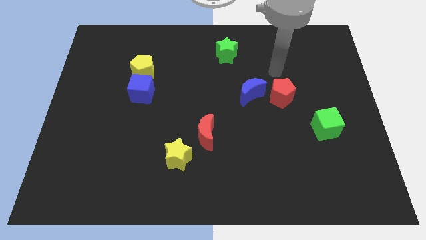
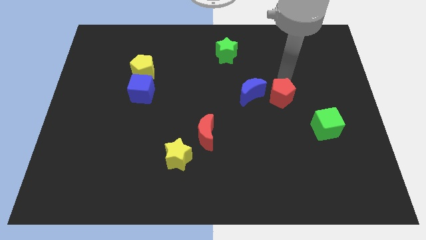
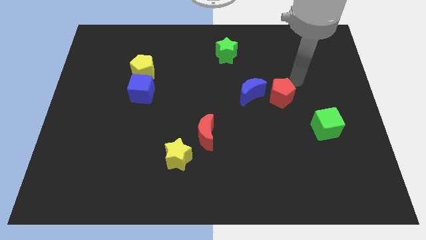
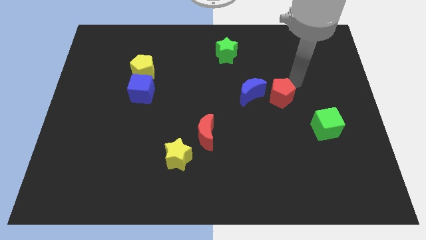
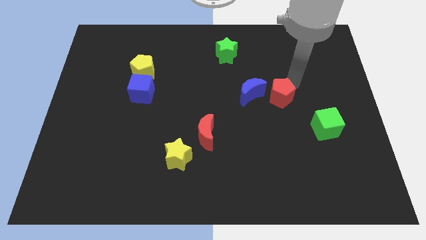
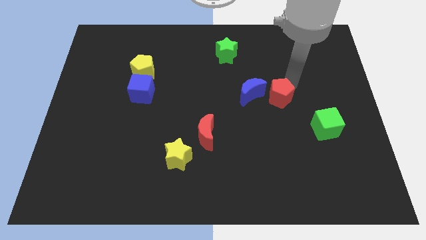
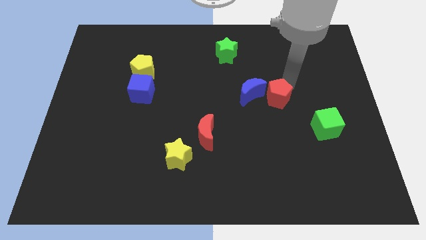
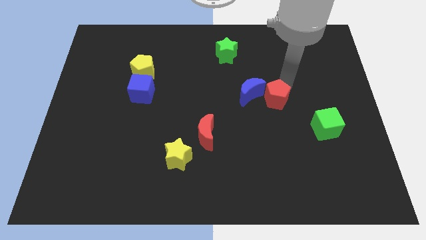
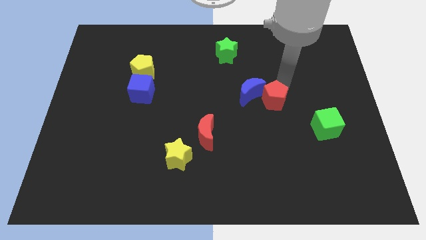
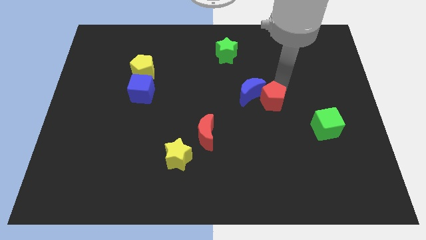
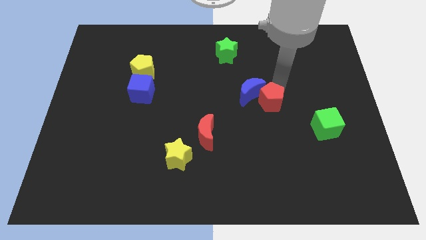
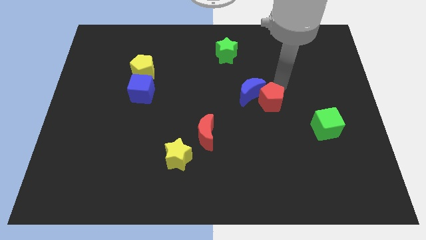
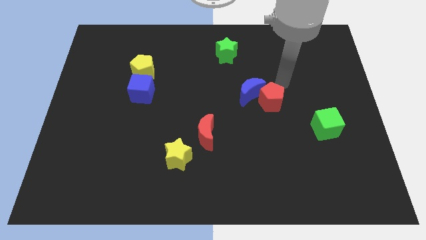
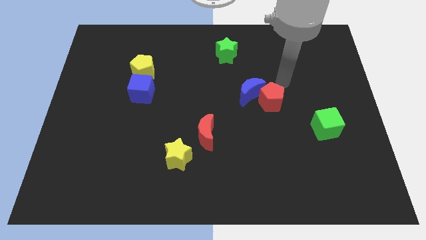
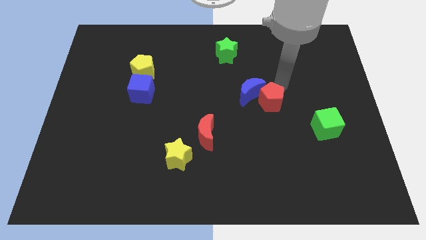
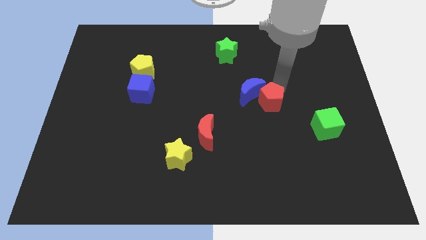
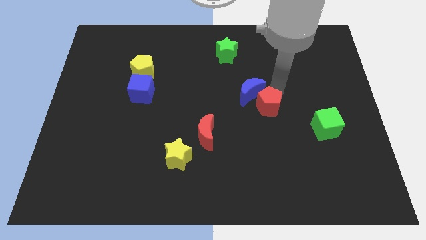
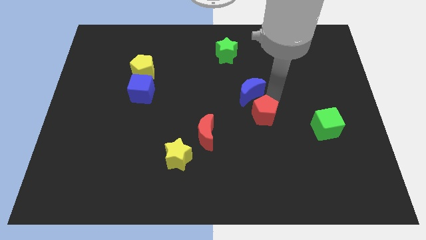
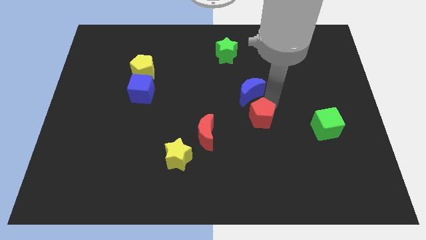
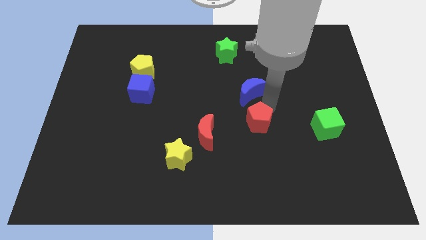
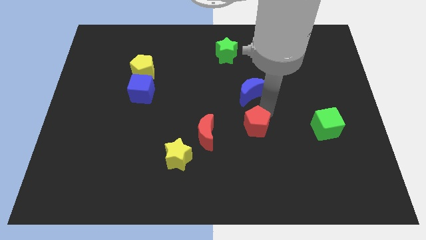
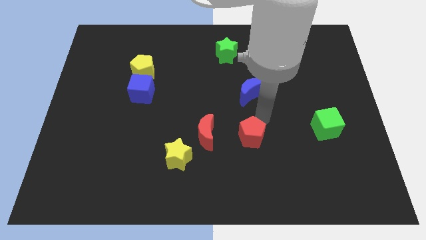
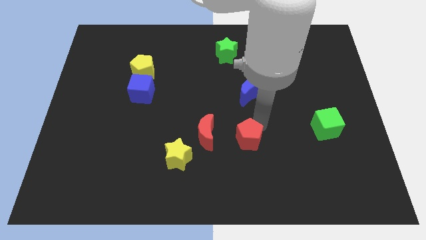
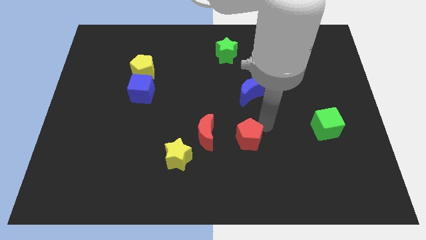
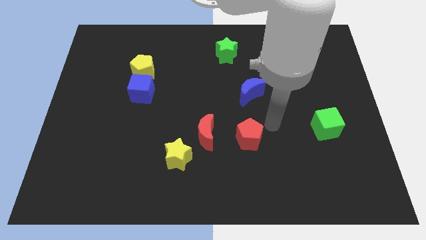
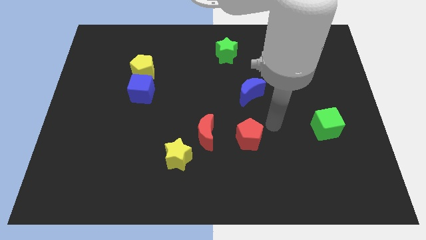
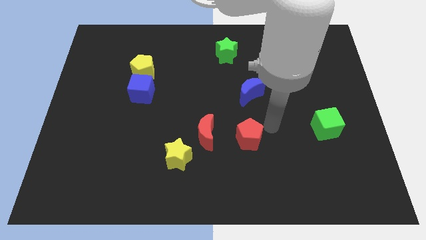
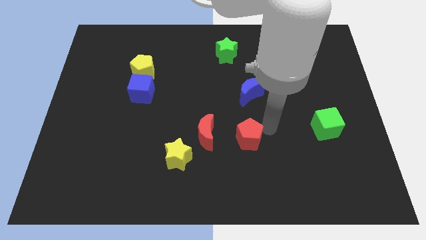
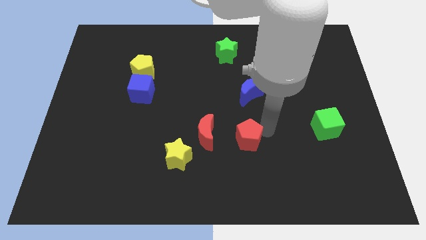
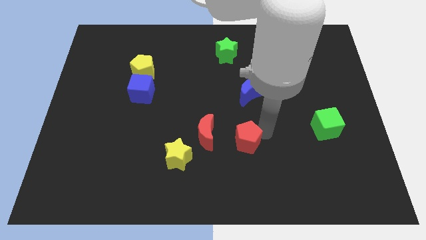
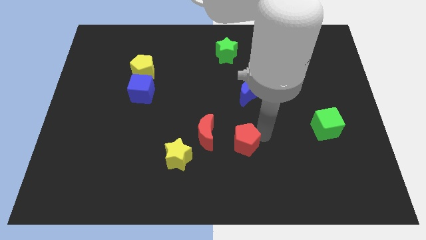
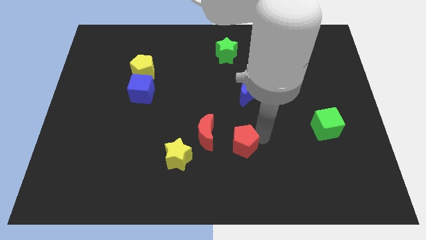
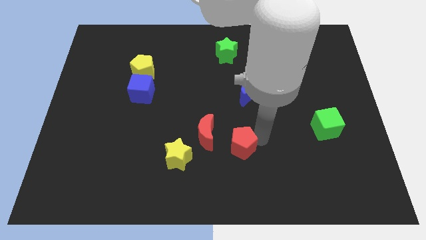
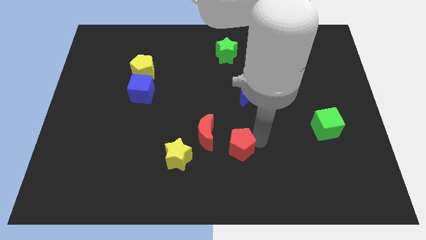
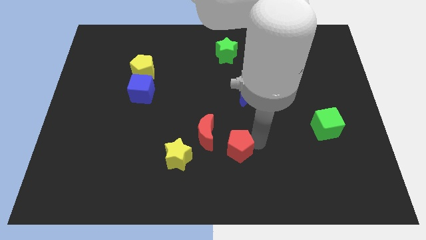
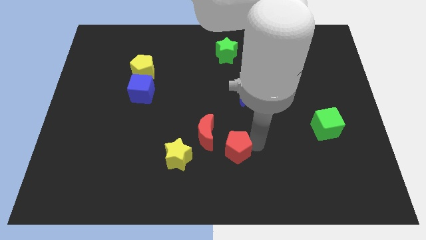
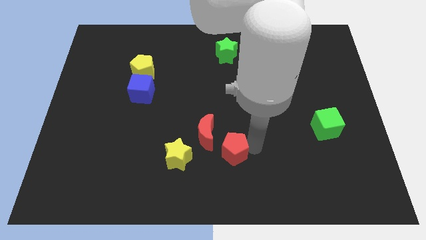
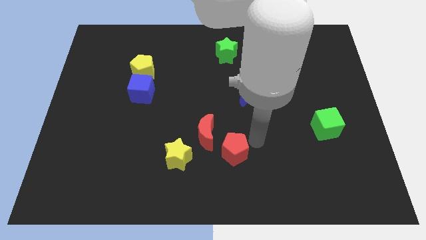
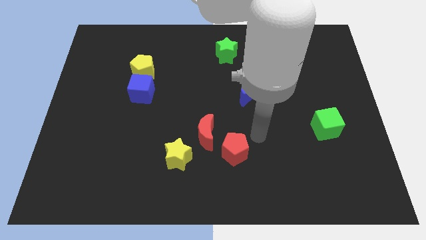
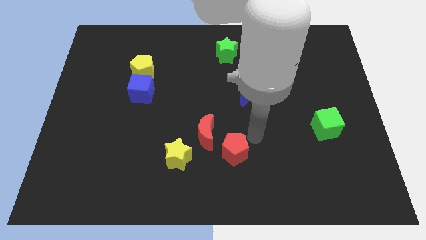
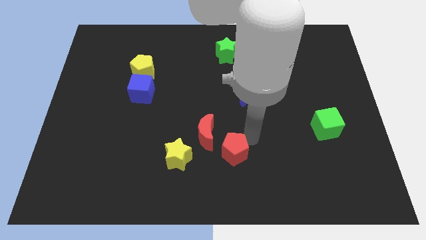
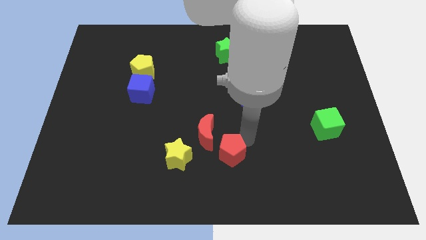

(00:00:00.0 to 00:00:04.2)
push the red pentagon down and to the left

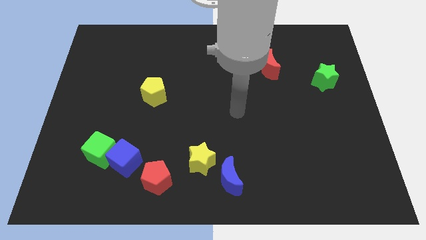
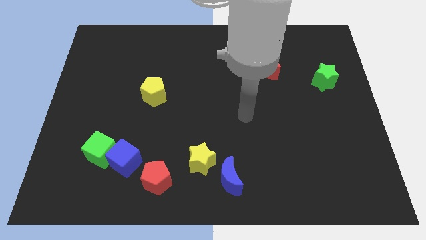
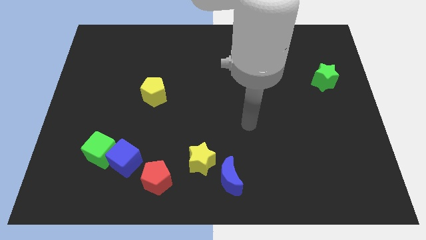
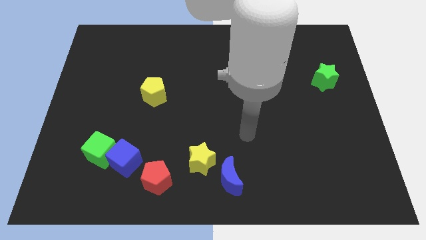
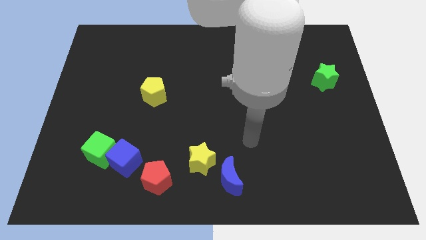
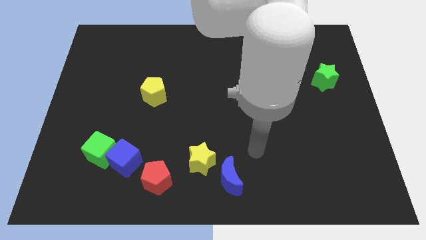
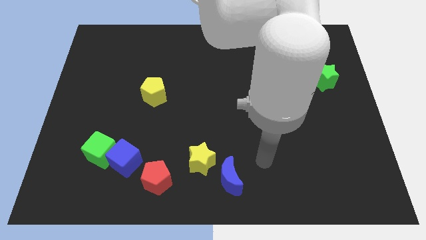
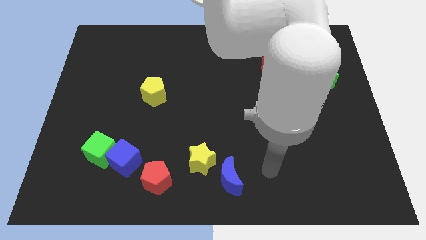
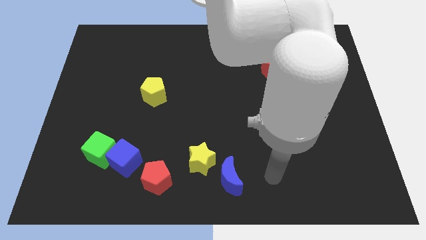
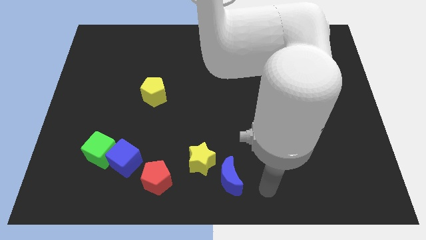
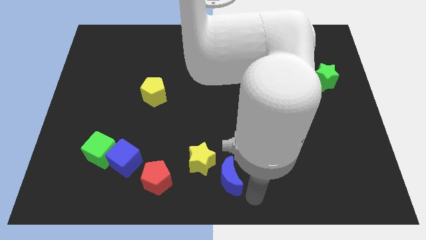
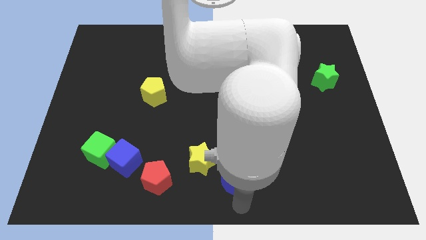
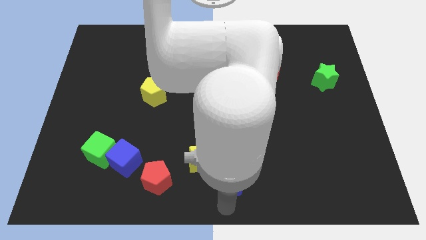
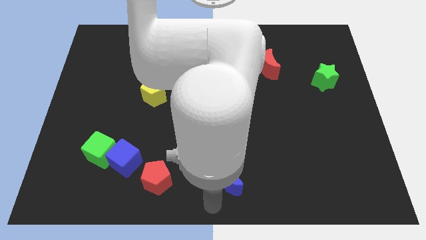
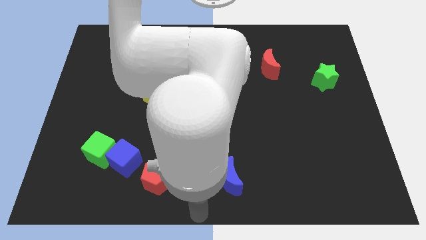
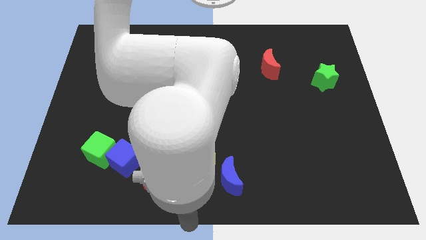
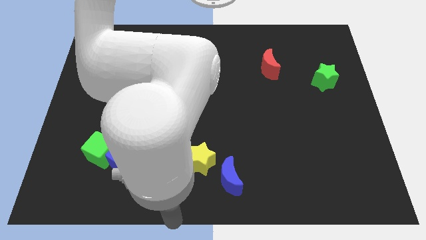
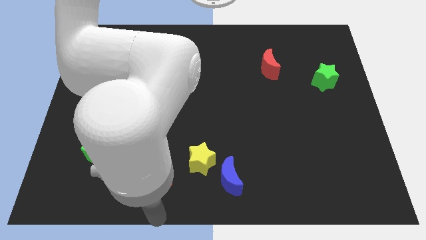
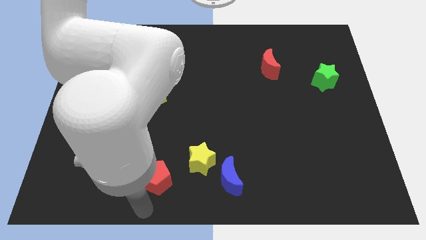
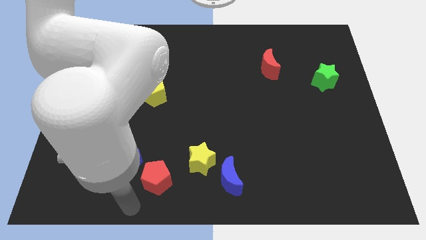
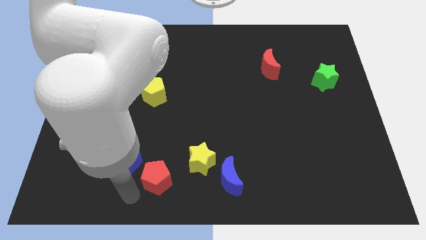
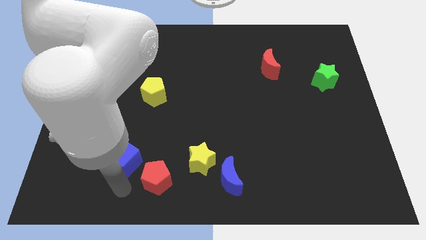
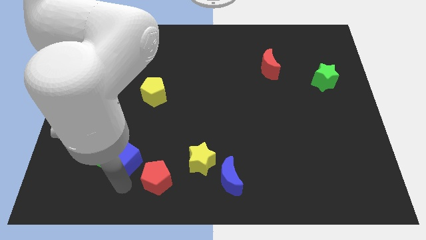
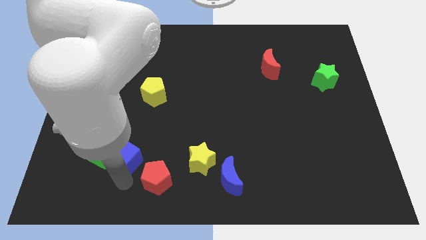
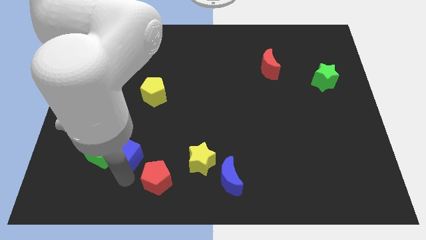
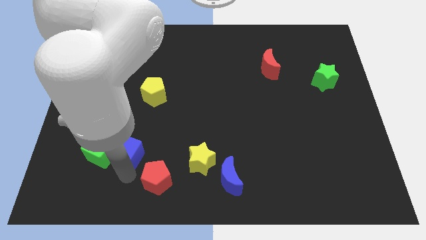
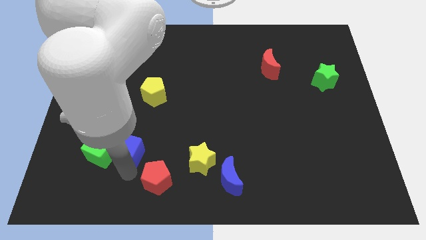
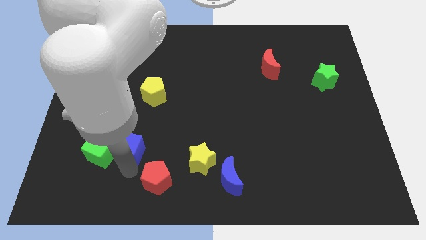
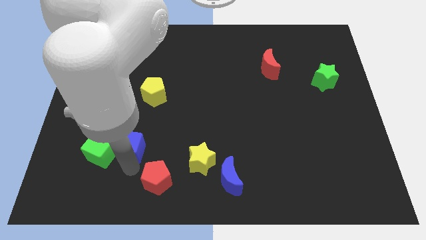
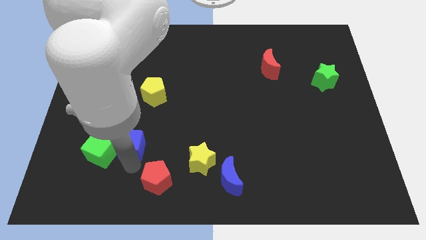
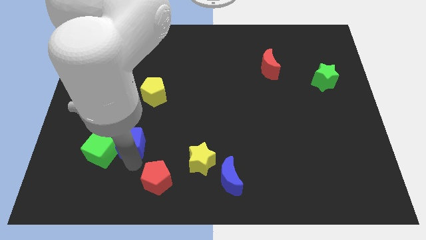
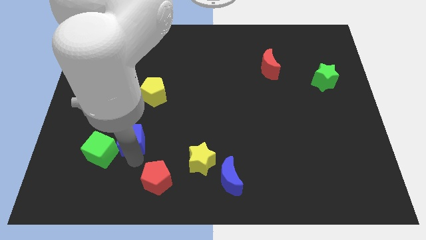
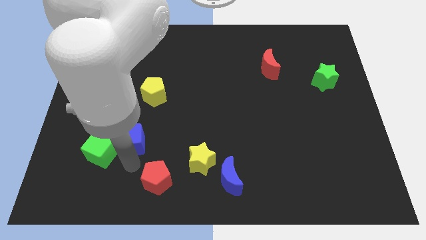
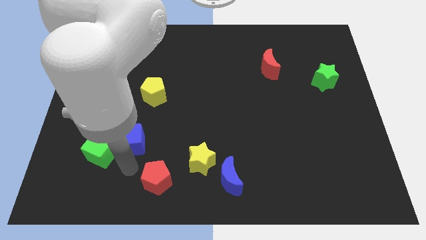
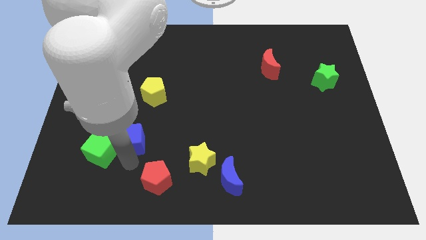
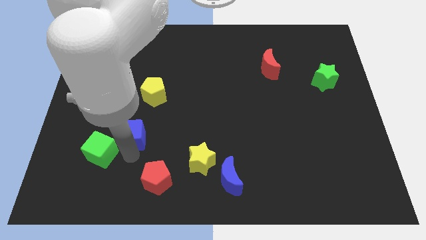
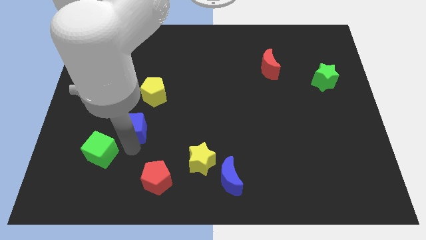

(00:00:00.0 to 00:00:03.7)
push the blue cube upwards slightly

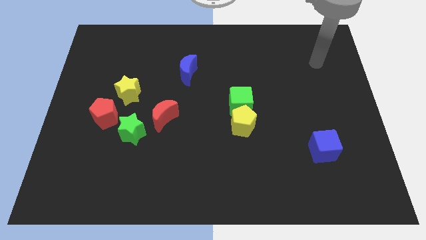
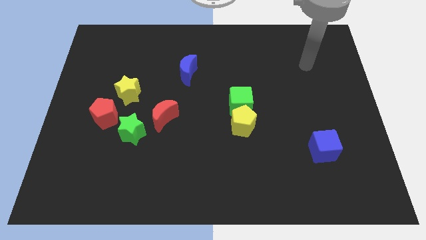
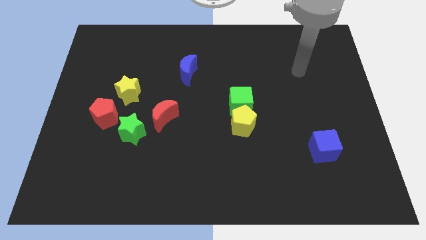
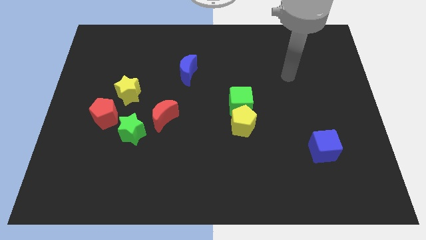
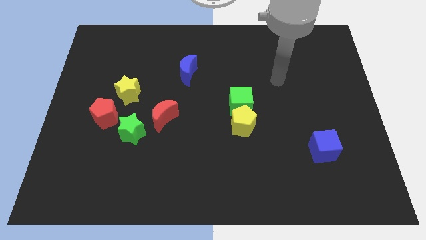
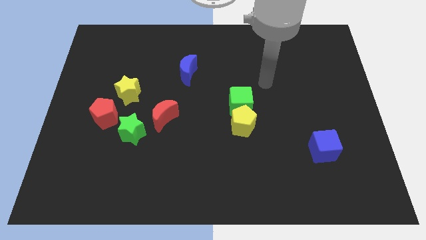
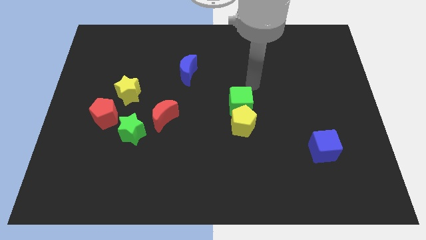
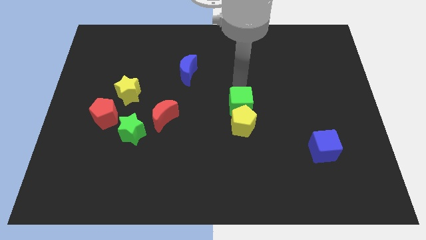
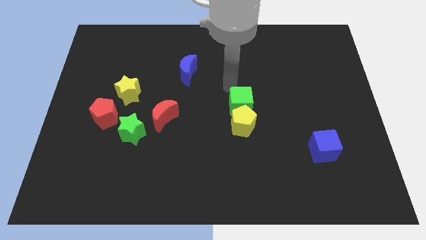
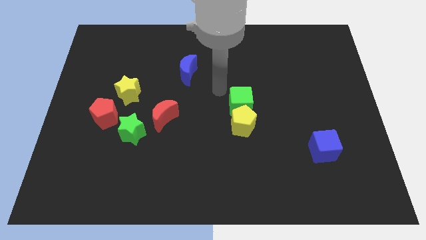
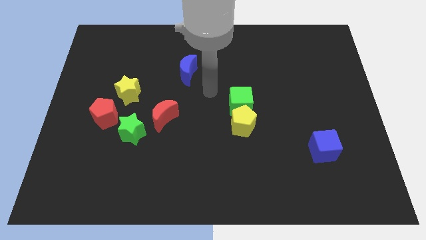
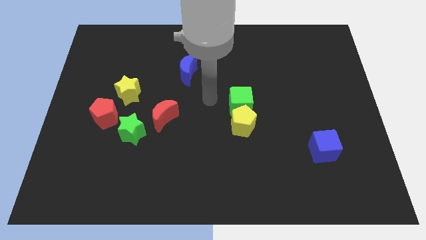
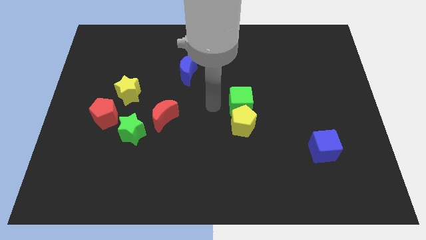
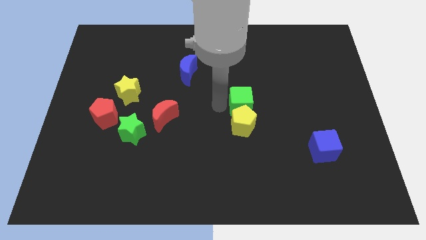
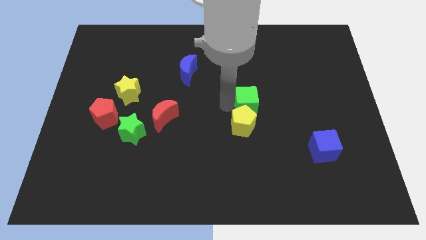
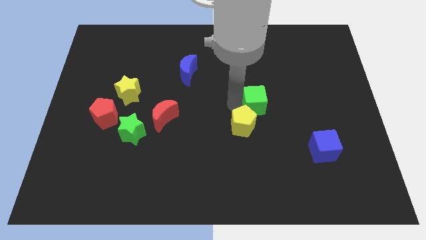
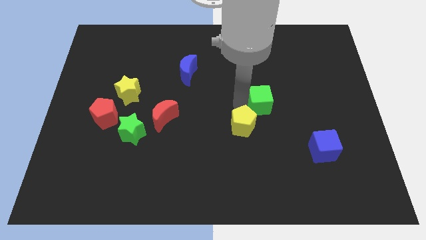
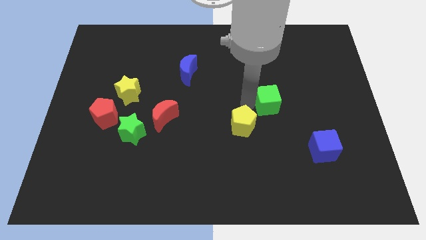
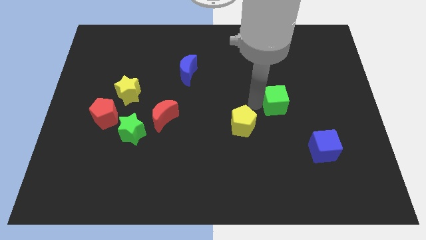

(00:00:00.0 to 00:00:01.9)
slightly slide the green cube to the right
